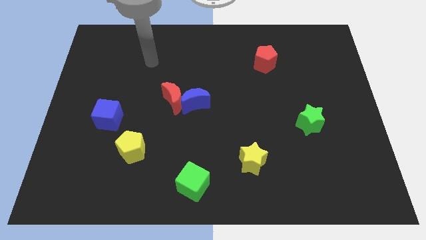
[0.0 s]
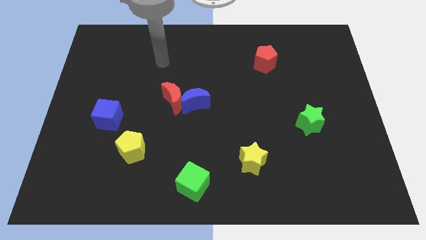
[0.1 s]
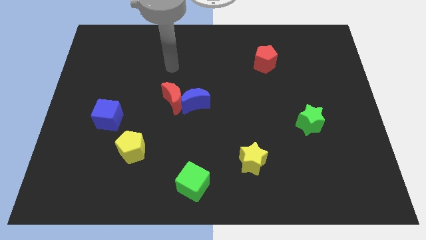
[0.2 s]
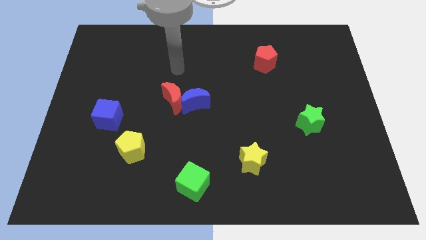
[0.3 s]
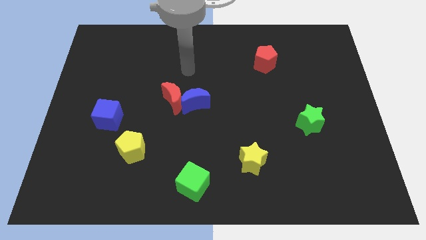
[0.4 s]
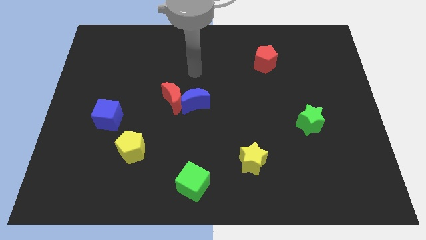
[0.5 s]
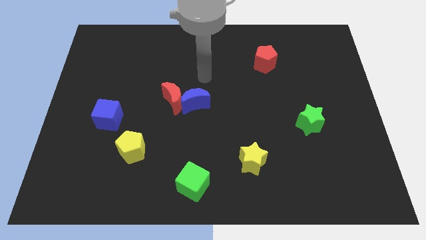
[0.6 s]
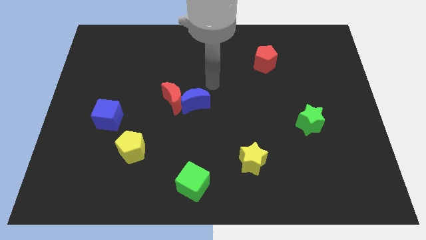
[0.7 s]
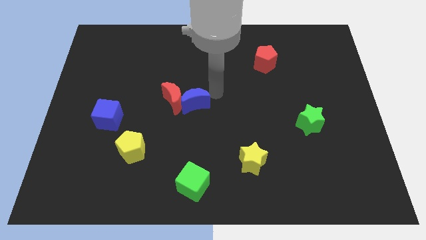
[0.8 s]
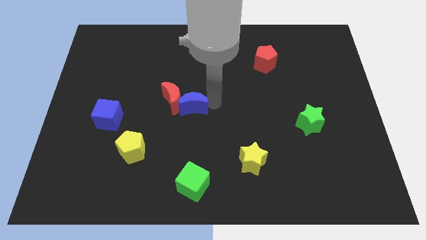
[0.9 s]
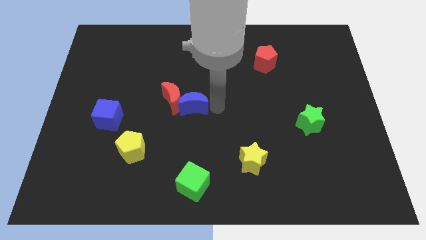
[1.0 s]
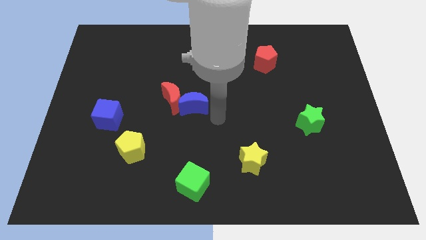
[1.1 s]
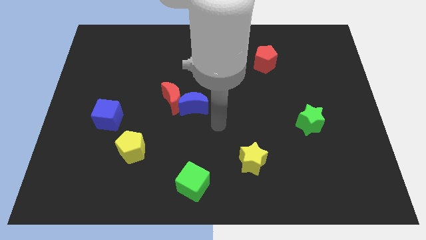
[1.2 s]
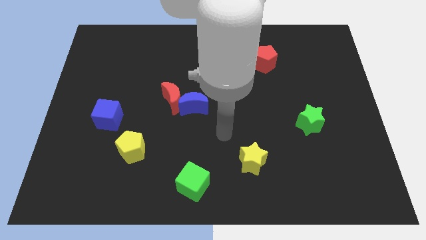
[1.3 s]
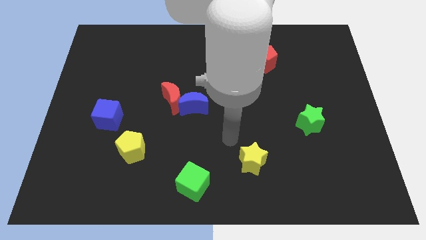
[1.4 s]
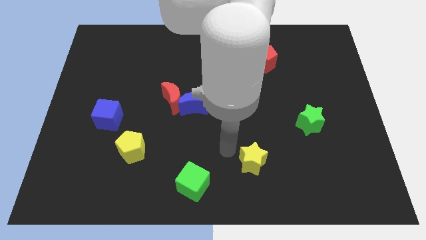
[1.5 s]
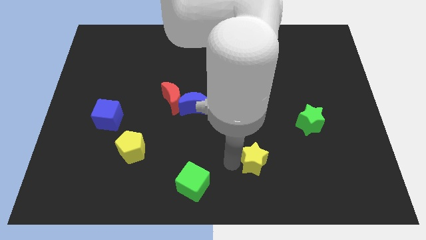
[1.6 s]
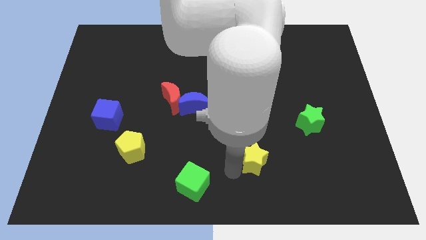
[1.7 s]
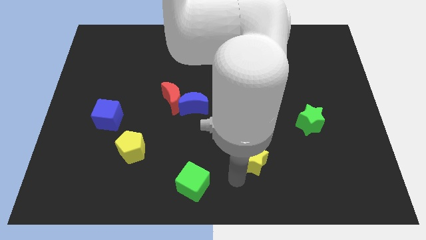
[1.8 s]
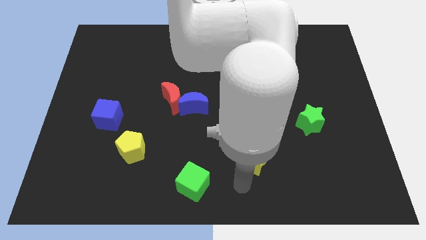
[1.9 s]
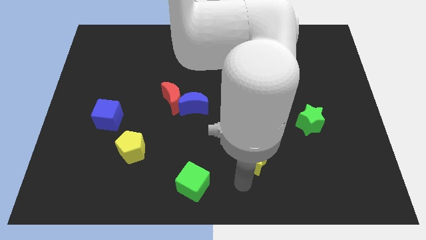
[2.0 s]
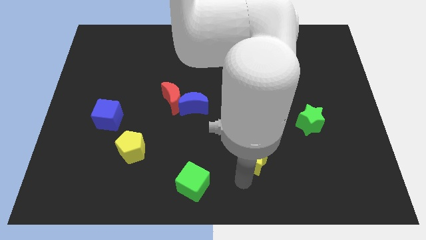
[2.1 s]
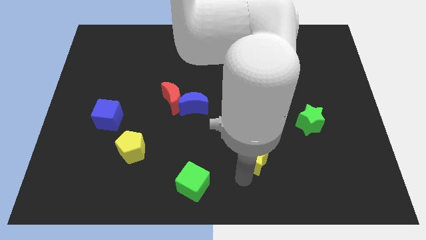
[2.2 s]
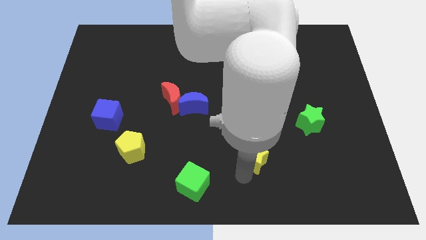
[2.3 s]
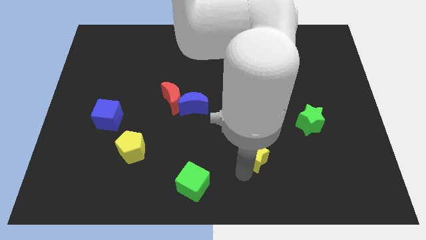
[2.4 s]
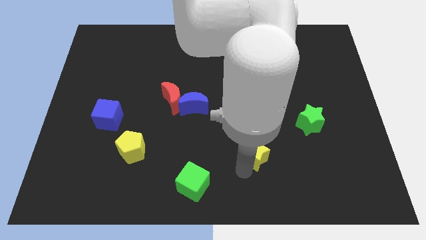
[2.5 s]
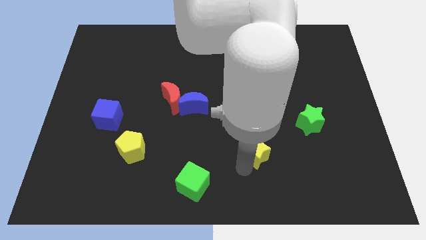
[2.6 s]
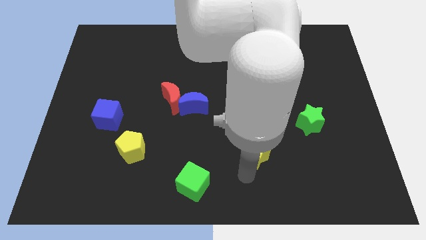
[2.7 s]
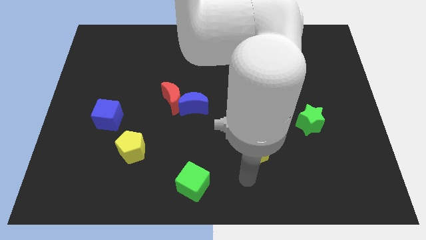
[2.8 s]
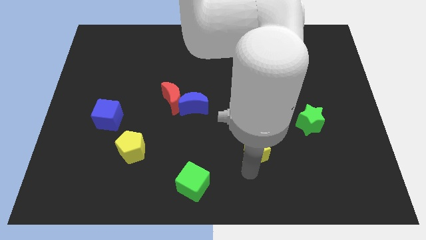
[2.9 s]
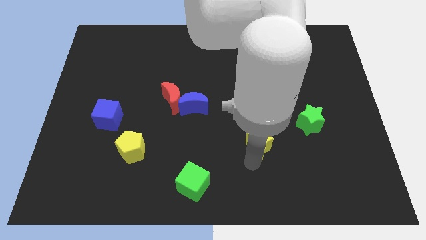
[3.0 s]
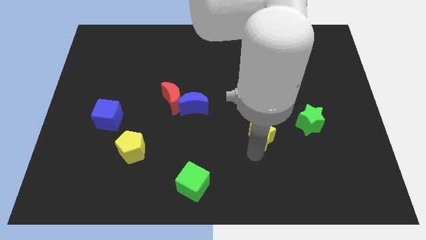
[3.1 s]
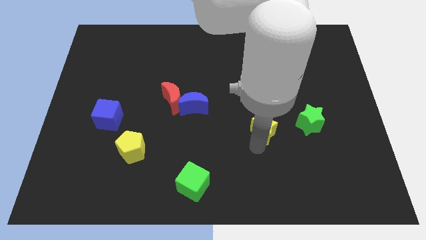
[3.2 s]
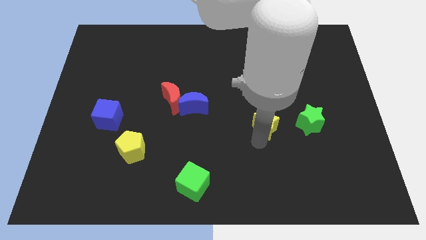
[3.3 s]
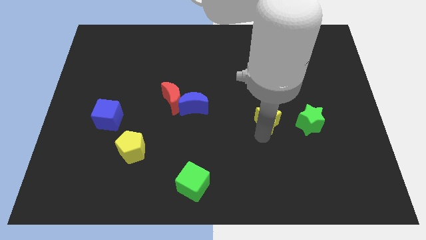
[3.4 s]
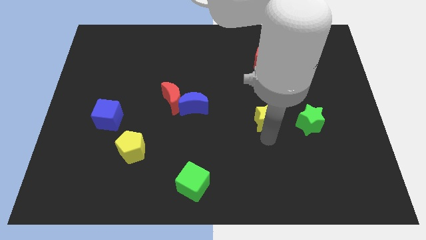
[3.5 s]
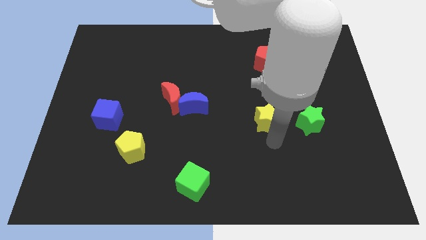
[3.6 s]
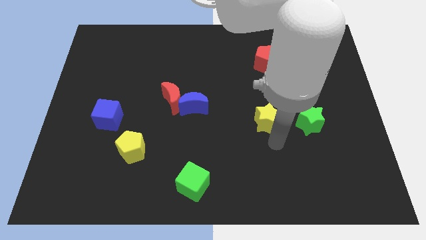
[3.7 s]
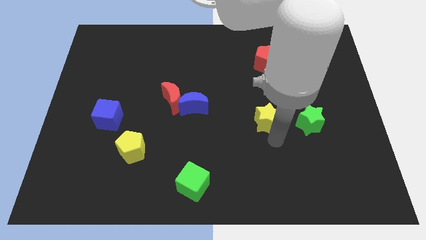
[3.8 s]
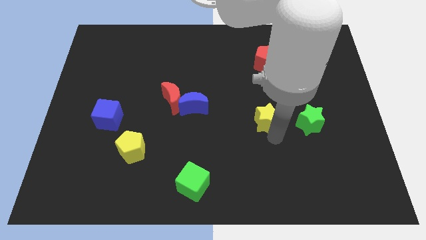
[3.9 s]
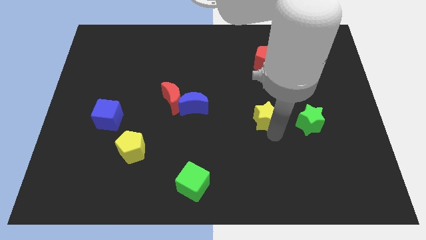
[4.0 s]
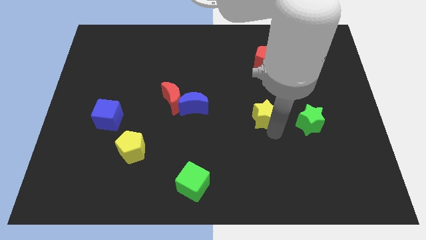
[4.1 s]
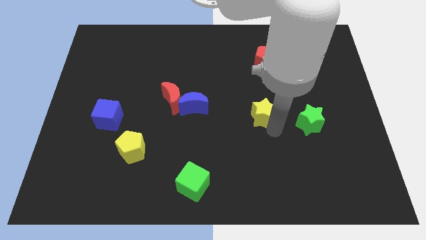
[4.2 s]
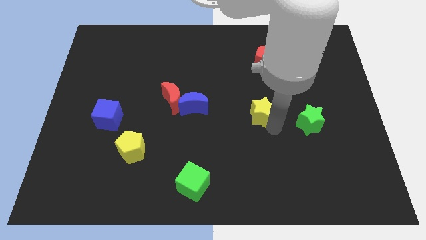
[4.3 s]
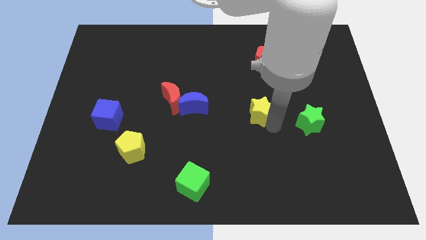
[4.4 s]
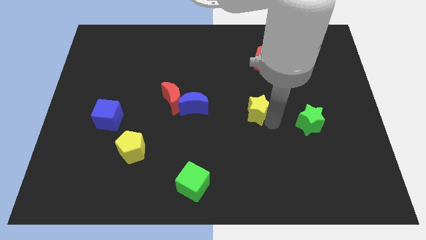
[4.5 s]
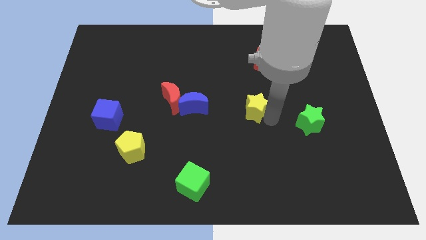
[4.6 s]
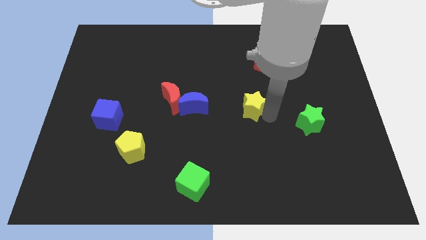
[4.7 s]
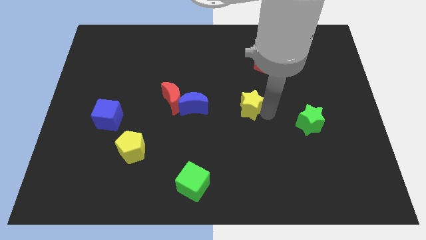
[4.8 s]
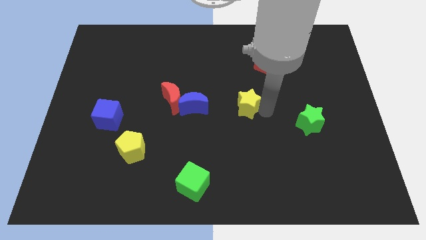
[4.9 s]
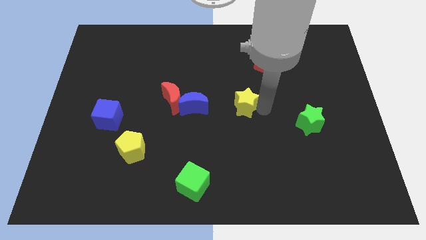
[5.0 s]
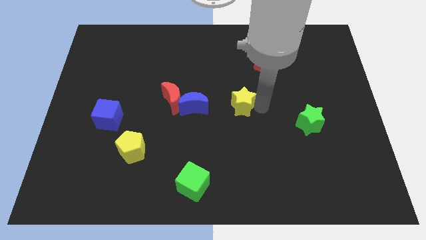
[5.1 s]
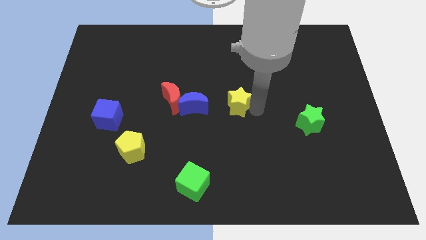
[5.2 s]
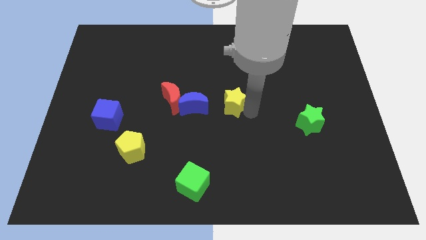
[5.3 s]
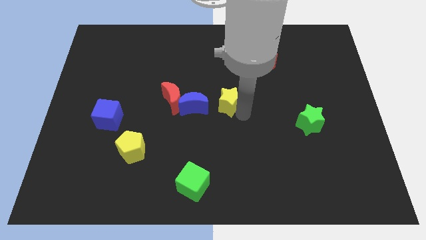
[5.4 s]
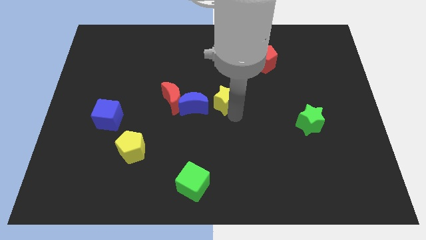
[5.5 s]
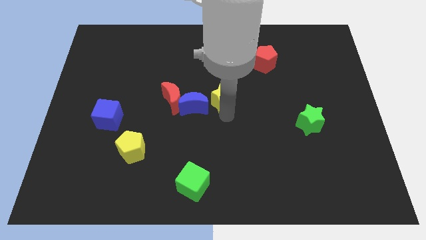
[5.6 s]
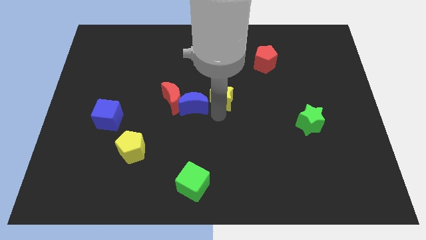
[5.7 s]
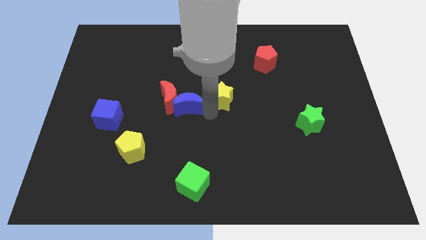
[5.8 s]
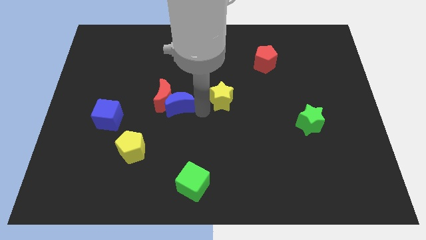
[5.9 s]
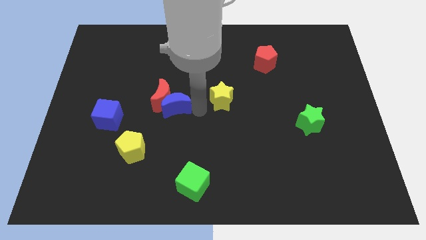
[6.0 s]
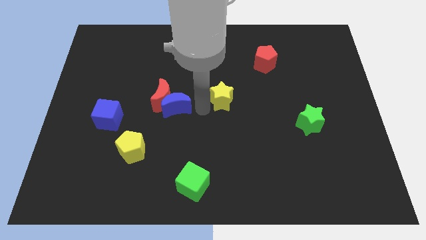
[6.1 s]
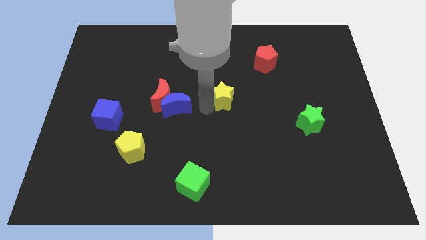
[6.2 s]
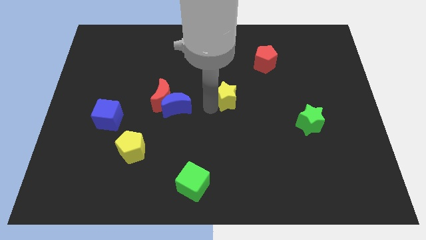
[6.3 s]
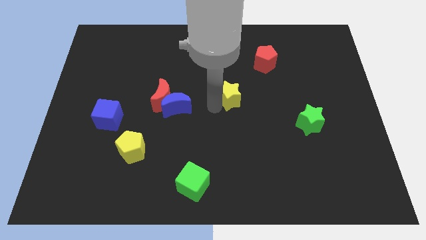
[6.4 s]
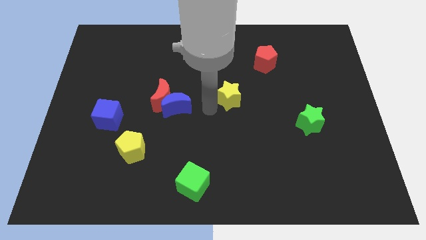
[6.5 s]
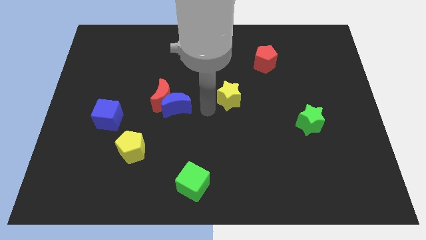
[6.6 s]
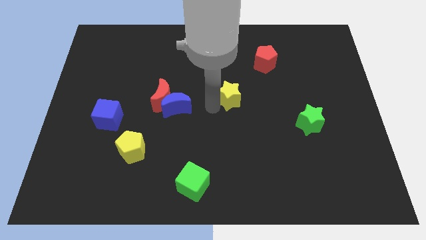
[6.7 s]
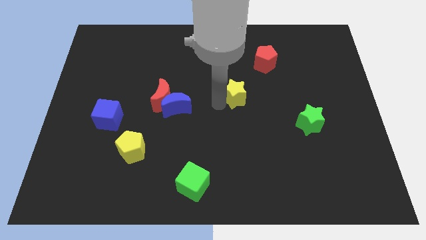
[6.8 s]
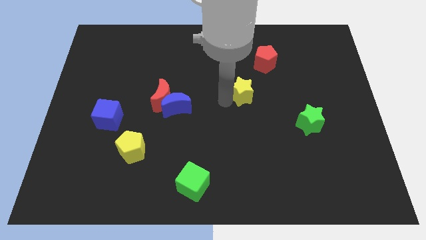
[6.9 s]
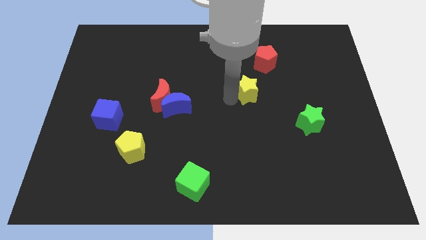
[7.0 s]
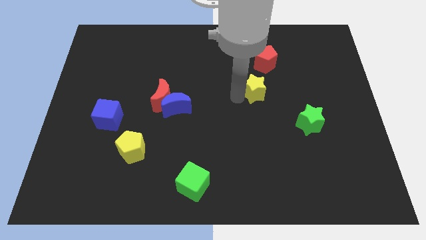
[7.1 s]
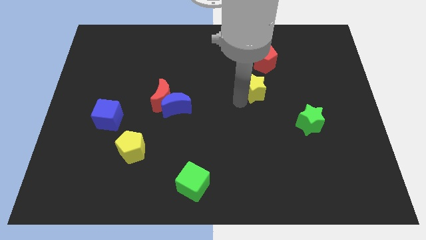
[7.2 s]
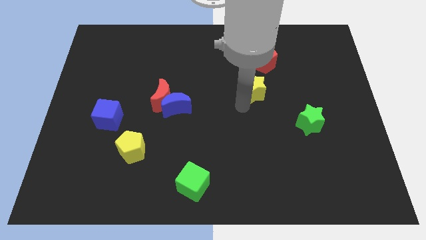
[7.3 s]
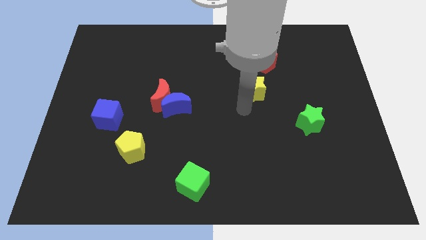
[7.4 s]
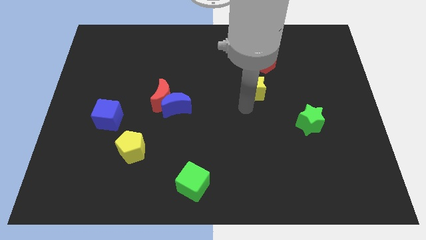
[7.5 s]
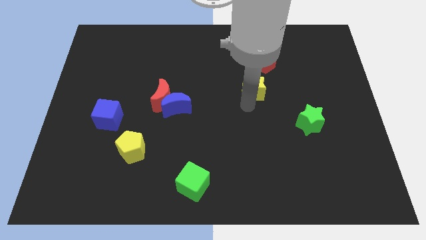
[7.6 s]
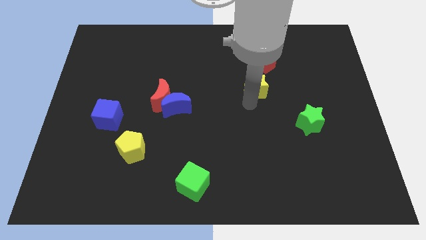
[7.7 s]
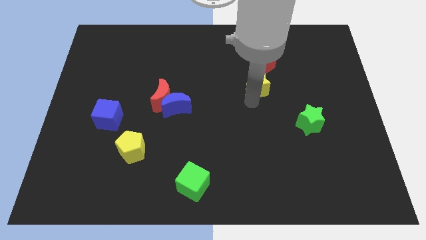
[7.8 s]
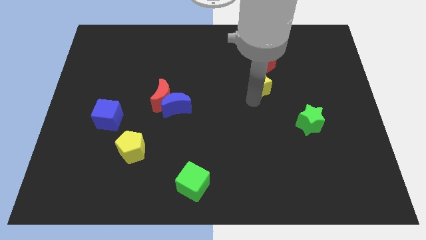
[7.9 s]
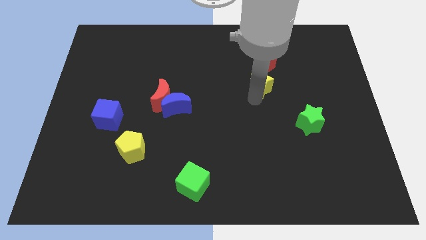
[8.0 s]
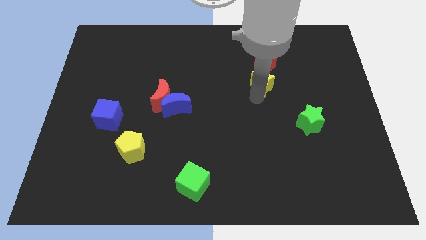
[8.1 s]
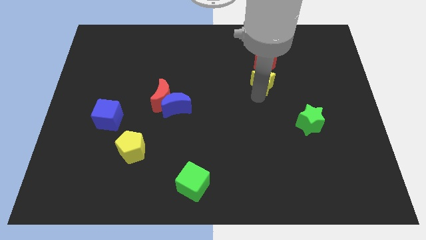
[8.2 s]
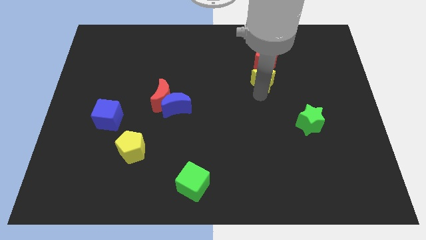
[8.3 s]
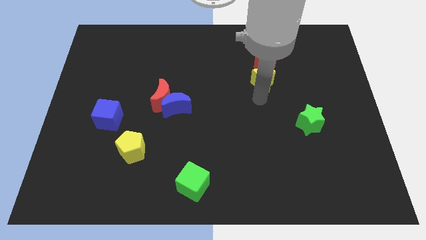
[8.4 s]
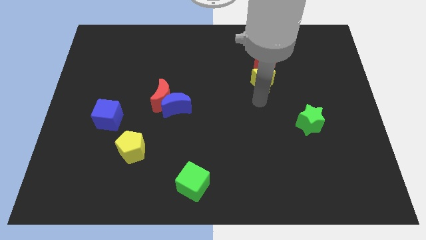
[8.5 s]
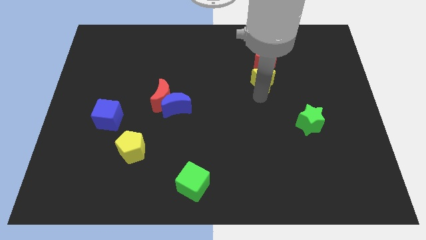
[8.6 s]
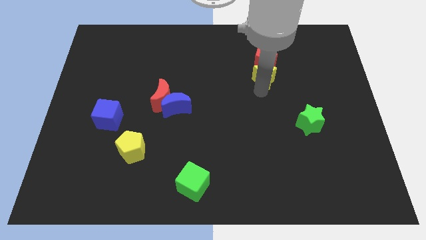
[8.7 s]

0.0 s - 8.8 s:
put the yellow star close to the red pentagon
